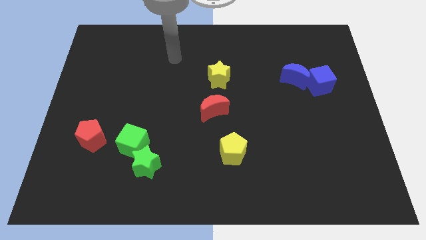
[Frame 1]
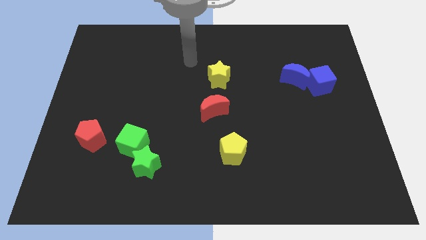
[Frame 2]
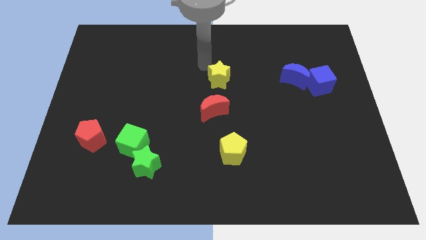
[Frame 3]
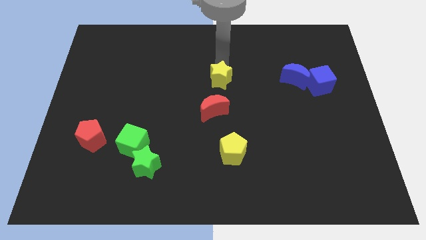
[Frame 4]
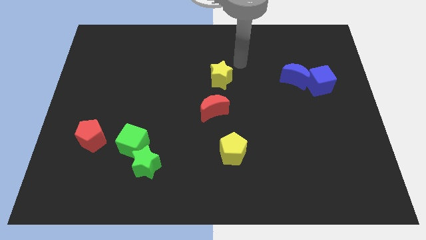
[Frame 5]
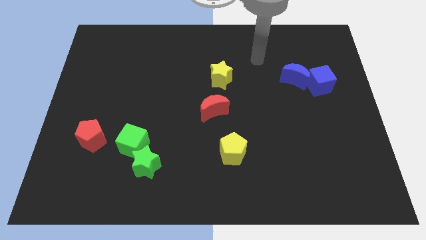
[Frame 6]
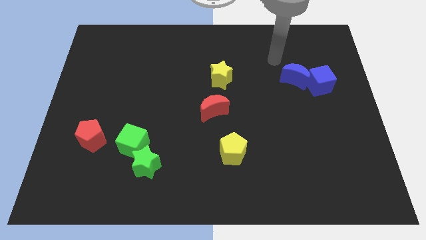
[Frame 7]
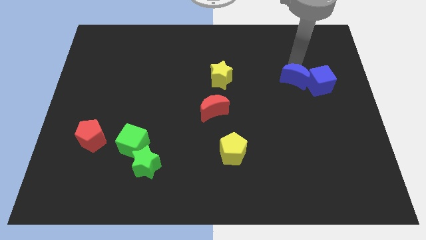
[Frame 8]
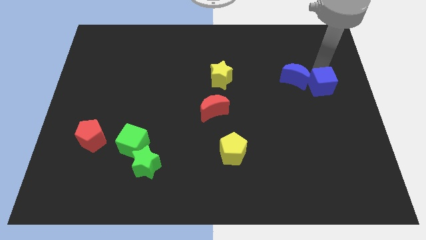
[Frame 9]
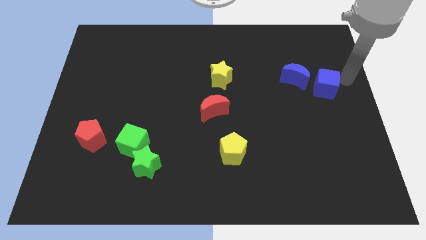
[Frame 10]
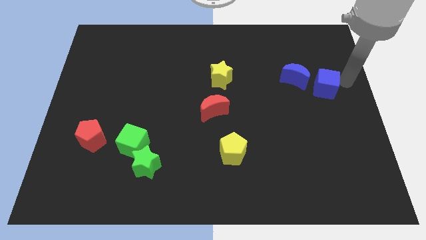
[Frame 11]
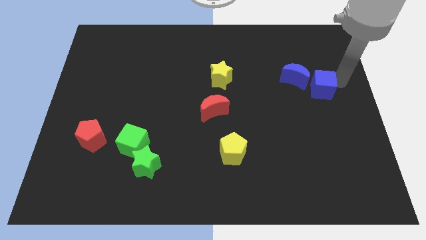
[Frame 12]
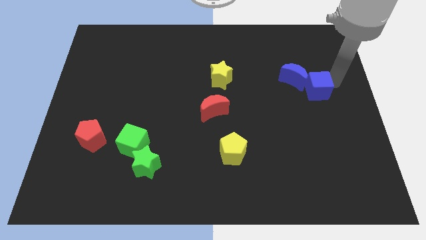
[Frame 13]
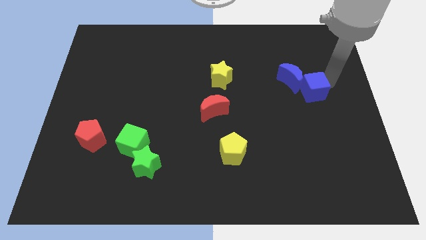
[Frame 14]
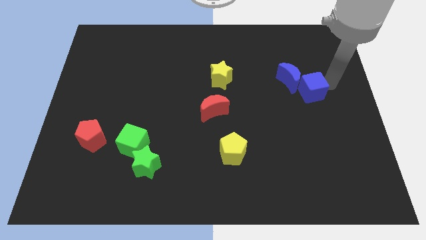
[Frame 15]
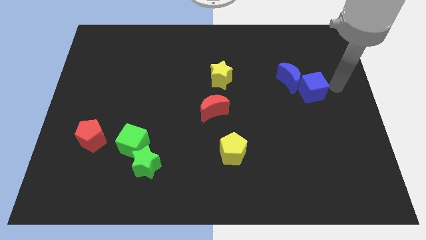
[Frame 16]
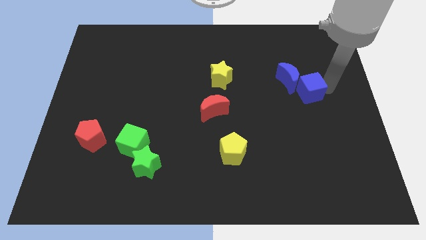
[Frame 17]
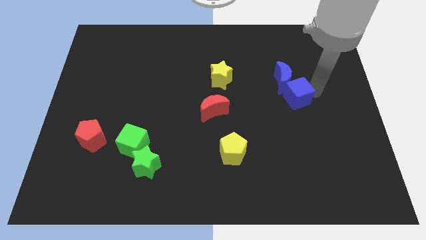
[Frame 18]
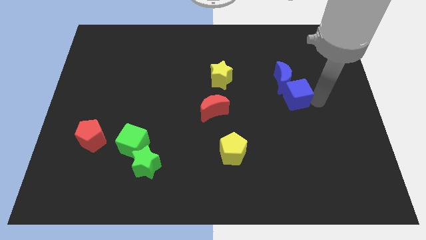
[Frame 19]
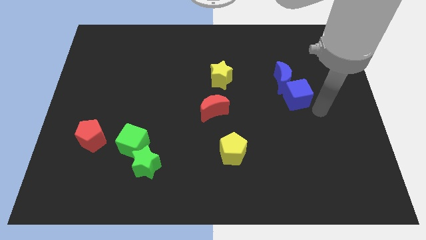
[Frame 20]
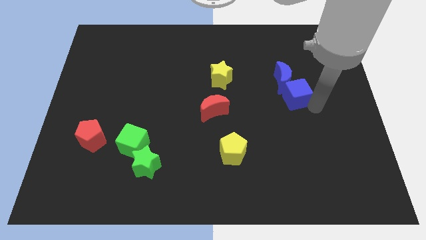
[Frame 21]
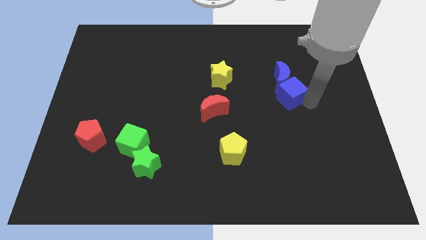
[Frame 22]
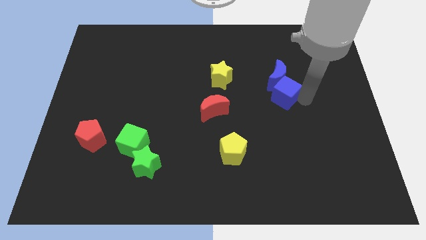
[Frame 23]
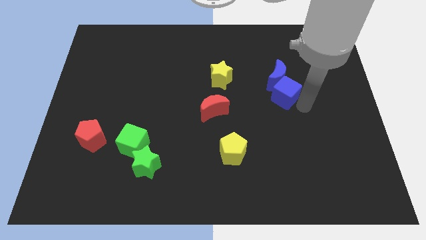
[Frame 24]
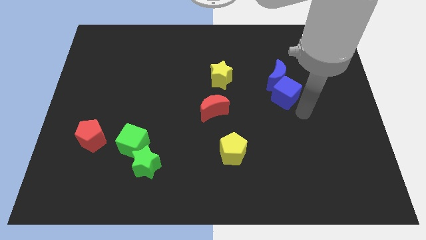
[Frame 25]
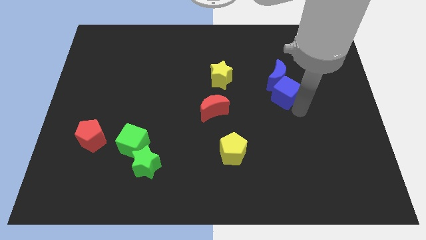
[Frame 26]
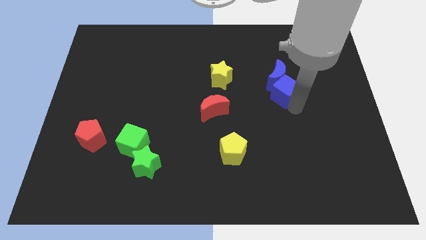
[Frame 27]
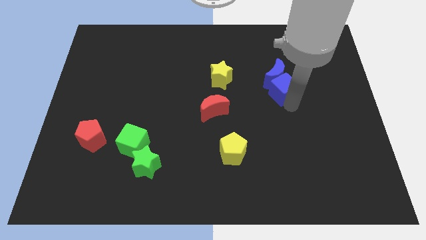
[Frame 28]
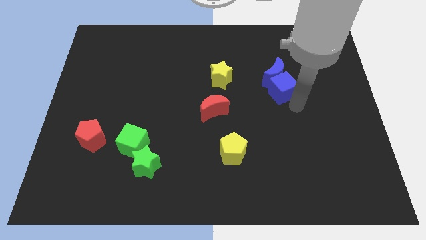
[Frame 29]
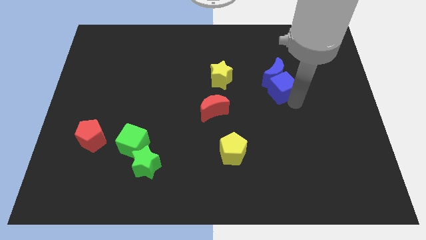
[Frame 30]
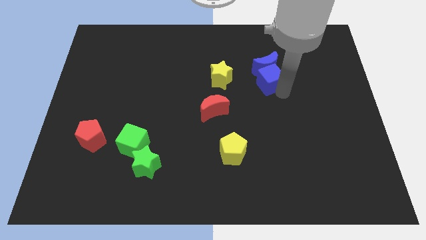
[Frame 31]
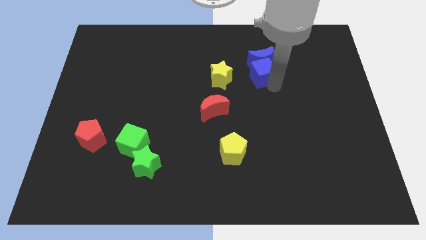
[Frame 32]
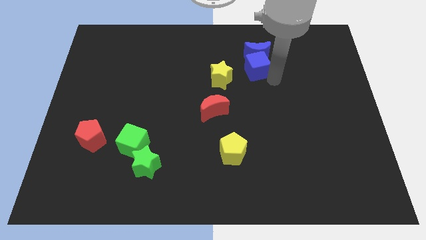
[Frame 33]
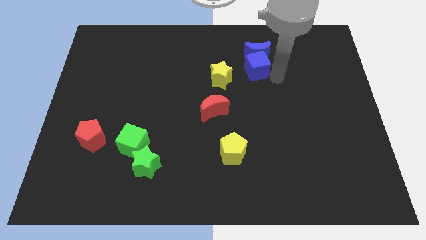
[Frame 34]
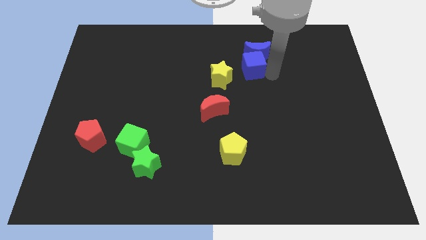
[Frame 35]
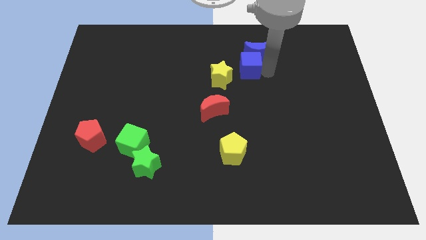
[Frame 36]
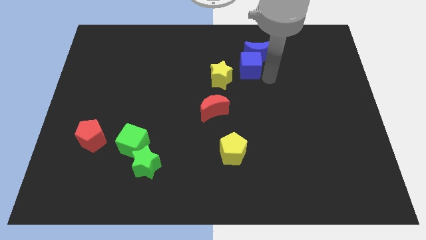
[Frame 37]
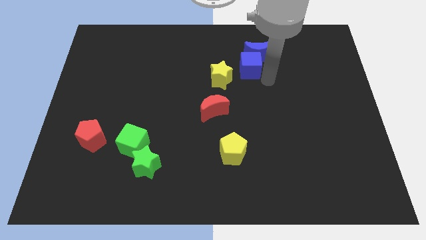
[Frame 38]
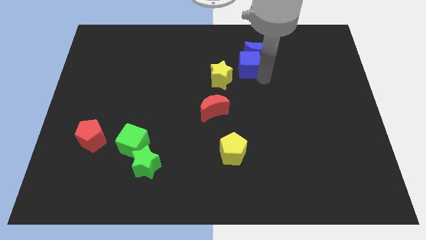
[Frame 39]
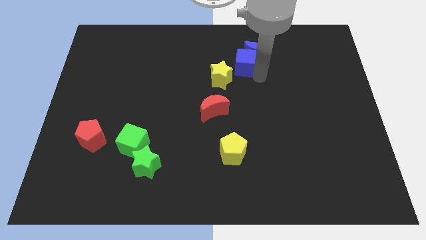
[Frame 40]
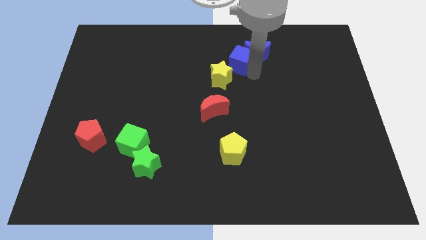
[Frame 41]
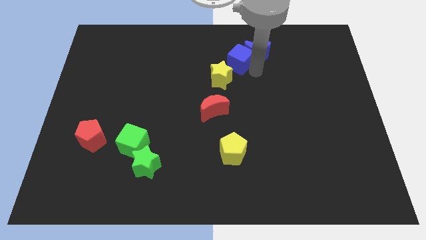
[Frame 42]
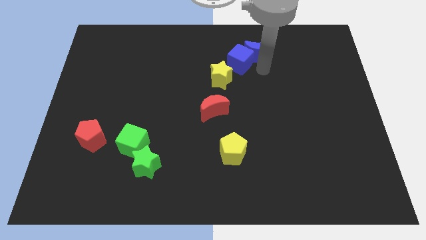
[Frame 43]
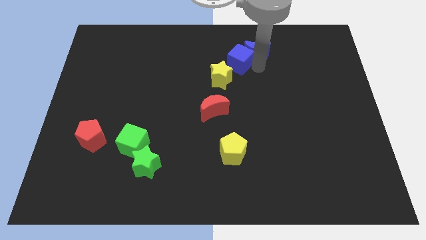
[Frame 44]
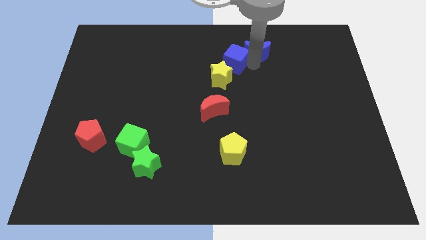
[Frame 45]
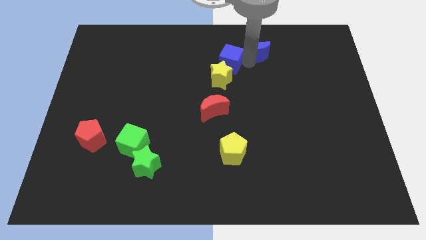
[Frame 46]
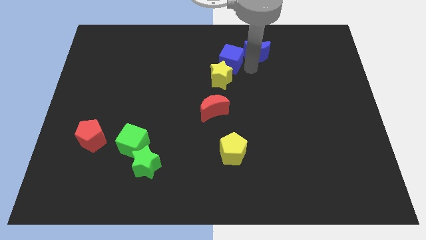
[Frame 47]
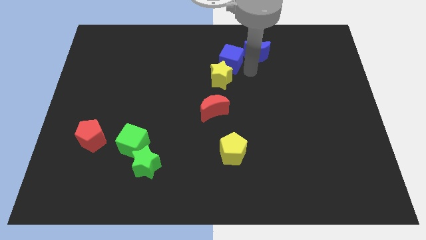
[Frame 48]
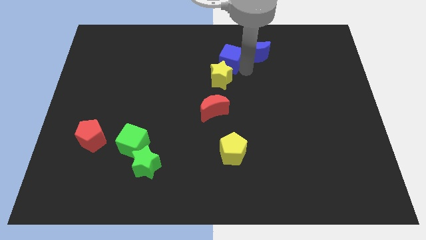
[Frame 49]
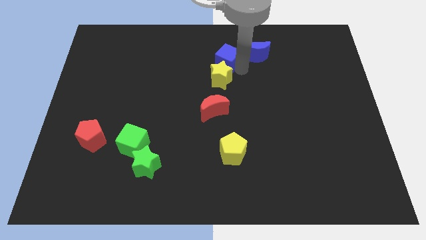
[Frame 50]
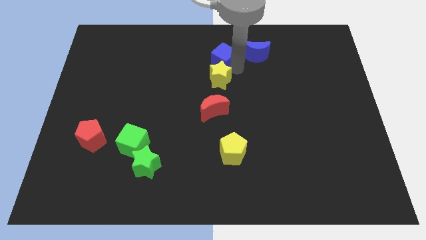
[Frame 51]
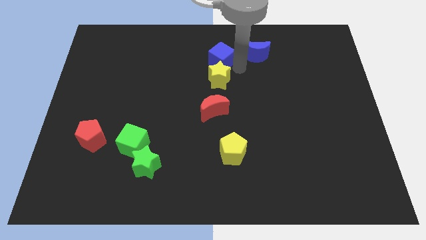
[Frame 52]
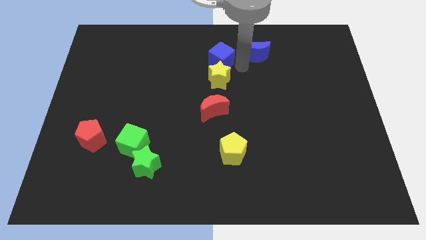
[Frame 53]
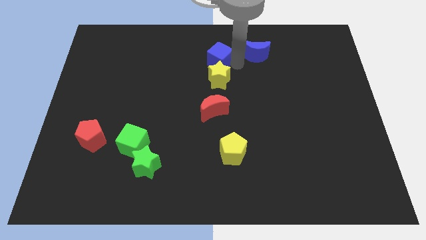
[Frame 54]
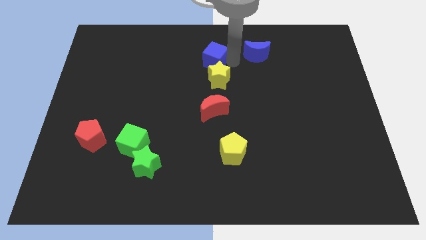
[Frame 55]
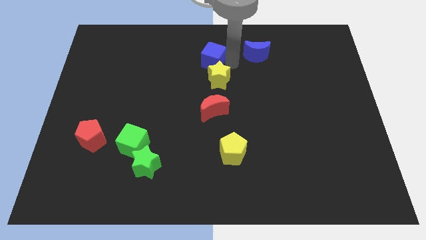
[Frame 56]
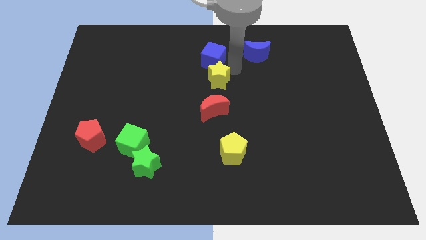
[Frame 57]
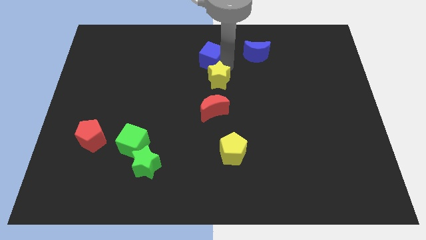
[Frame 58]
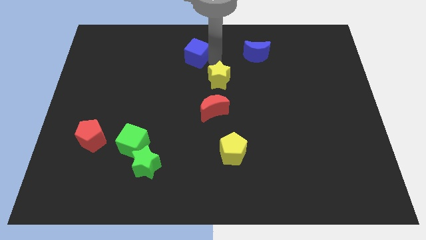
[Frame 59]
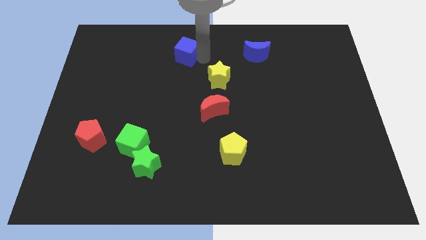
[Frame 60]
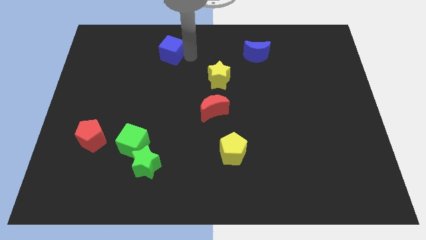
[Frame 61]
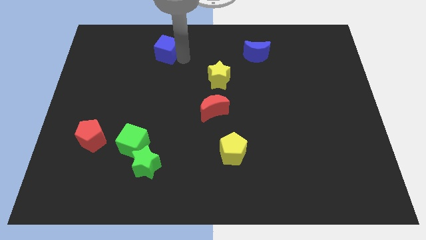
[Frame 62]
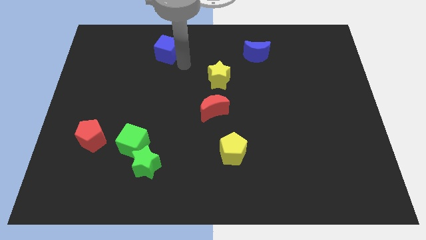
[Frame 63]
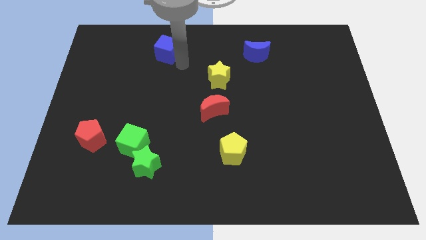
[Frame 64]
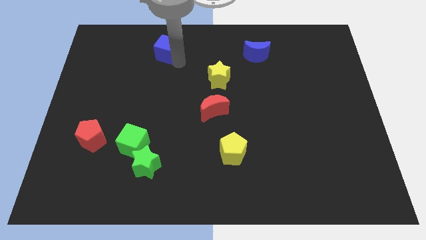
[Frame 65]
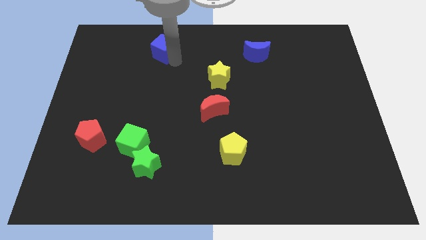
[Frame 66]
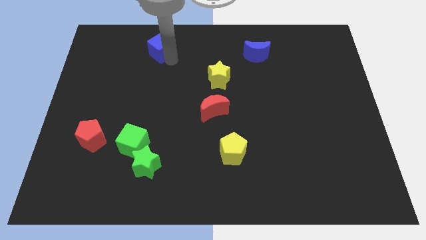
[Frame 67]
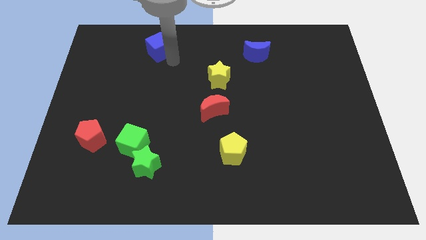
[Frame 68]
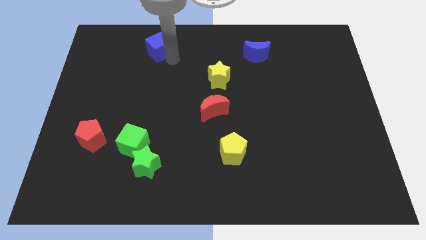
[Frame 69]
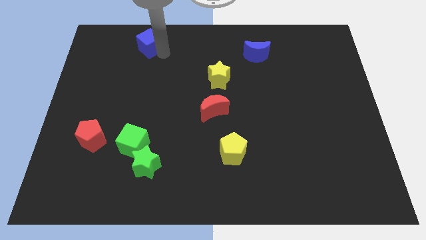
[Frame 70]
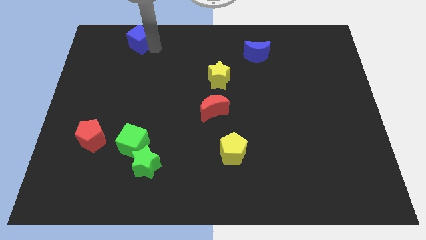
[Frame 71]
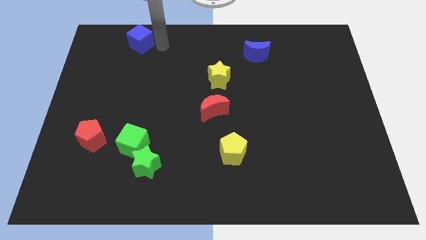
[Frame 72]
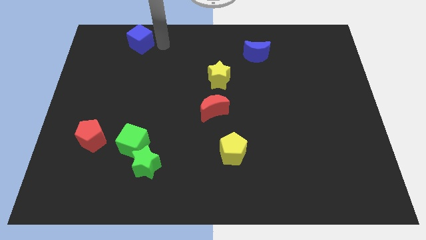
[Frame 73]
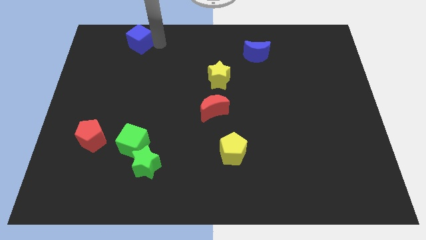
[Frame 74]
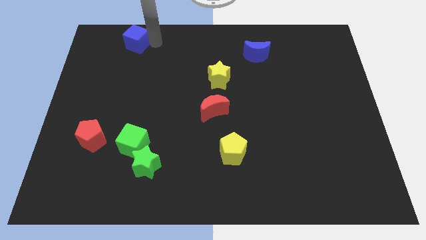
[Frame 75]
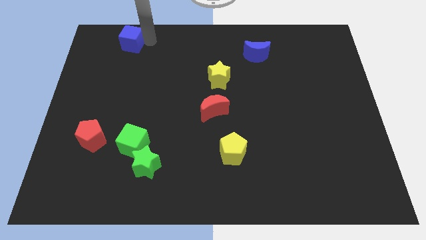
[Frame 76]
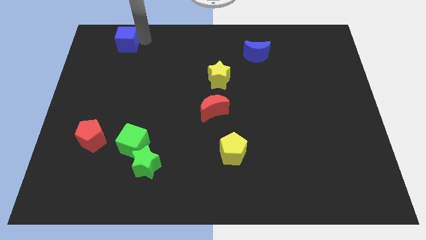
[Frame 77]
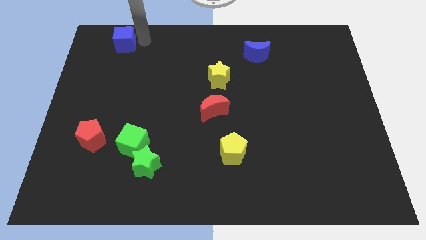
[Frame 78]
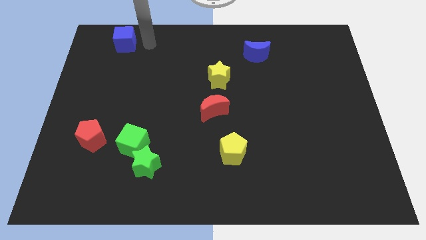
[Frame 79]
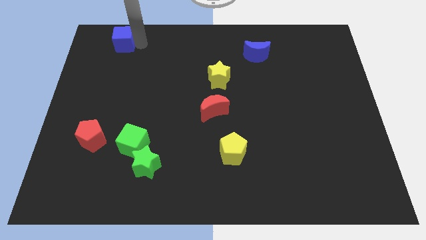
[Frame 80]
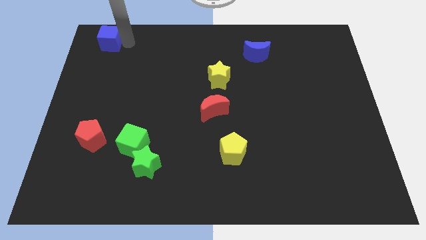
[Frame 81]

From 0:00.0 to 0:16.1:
put the blue cube to the top left corner
